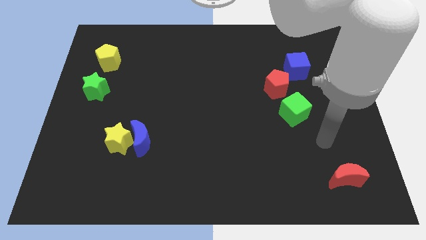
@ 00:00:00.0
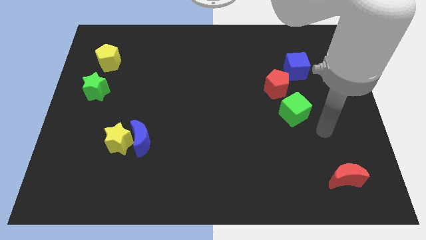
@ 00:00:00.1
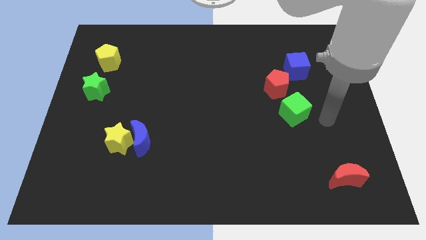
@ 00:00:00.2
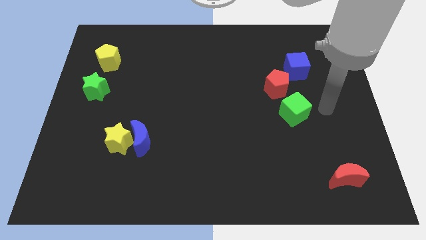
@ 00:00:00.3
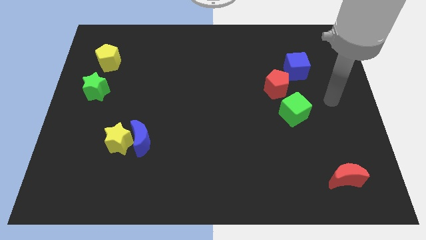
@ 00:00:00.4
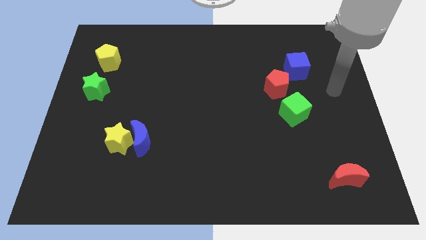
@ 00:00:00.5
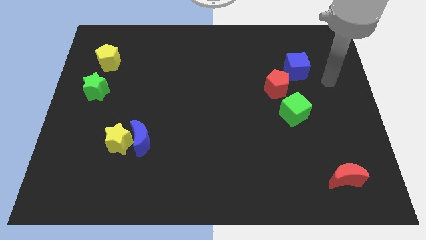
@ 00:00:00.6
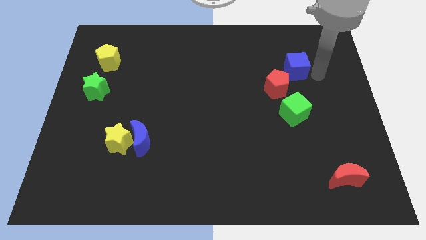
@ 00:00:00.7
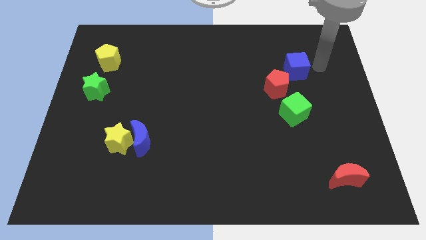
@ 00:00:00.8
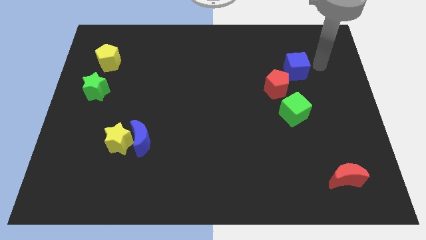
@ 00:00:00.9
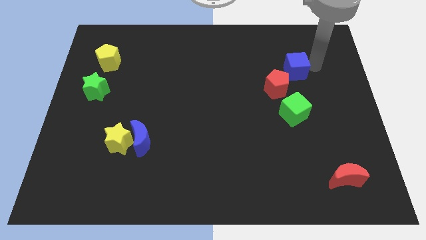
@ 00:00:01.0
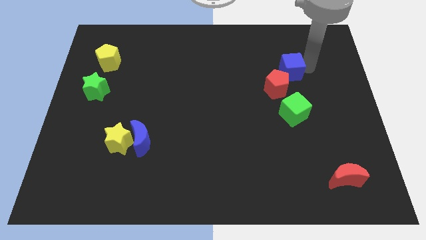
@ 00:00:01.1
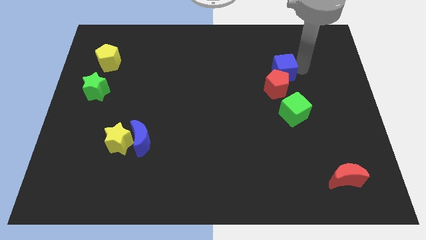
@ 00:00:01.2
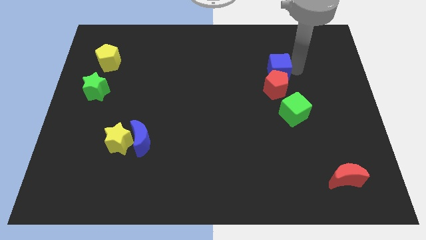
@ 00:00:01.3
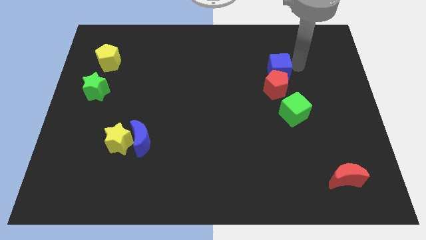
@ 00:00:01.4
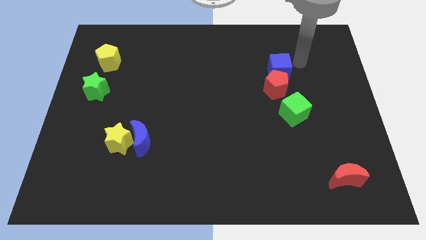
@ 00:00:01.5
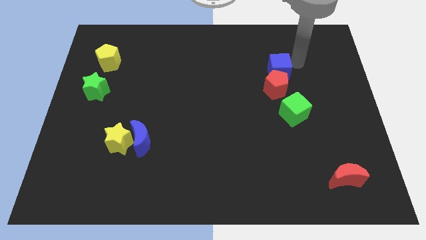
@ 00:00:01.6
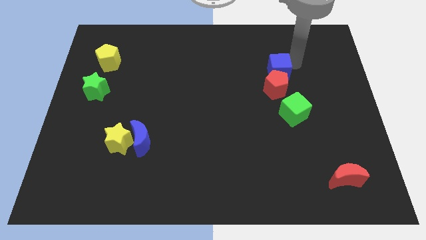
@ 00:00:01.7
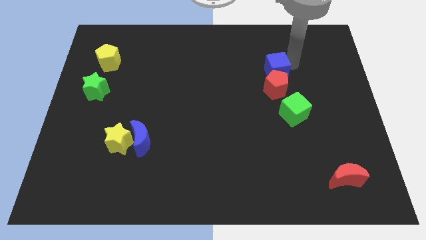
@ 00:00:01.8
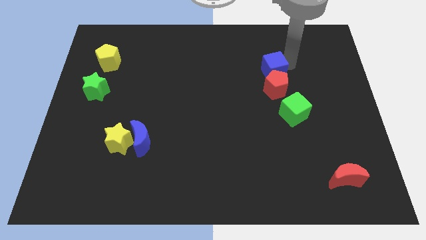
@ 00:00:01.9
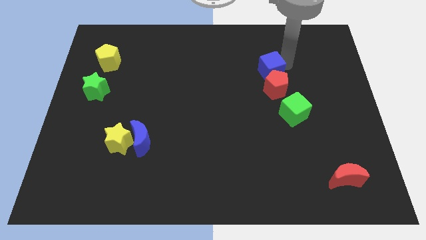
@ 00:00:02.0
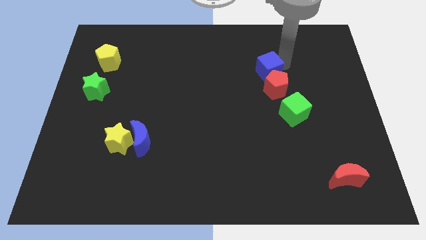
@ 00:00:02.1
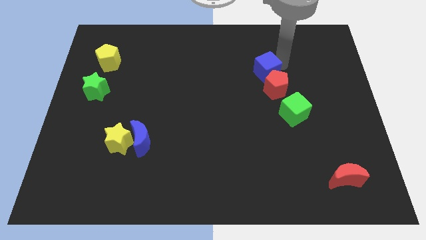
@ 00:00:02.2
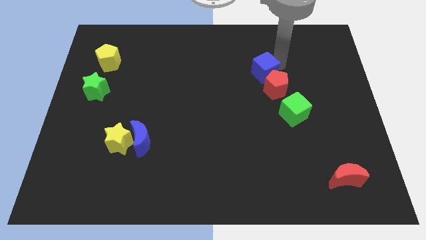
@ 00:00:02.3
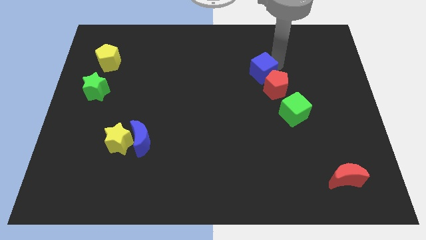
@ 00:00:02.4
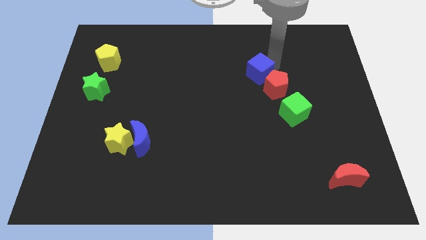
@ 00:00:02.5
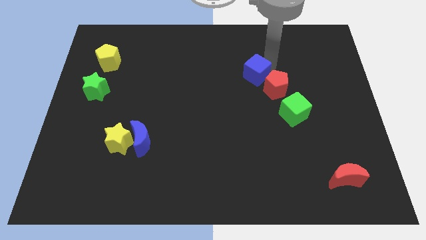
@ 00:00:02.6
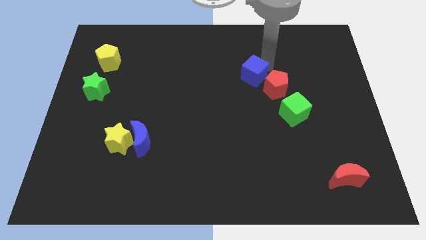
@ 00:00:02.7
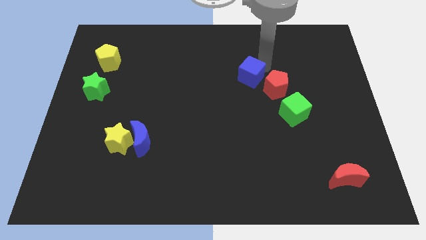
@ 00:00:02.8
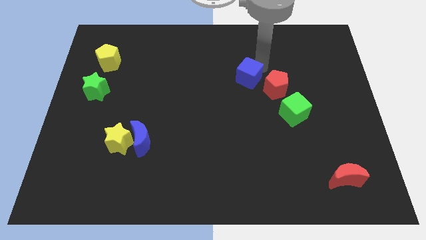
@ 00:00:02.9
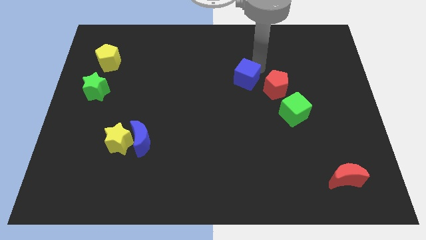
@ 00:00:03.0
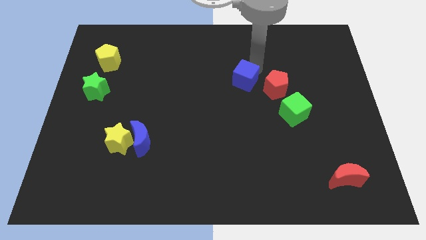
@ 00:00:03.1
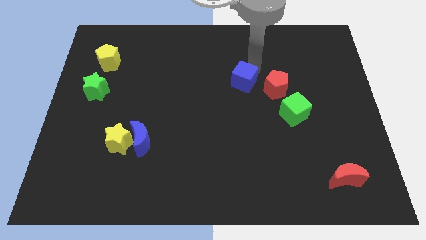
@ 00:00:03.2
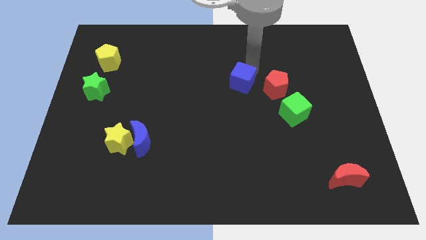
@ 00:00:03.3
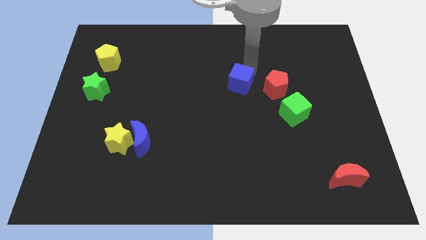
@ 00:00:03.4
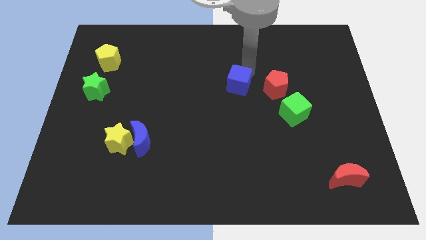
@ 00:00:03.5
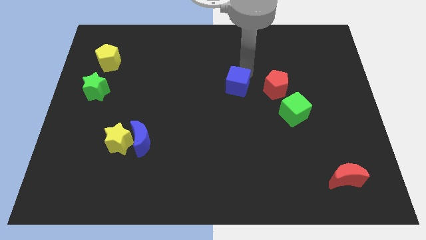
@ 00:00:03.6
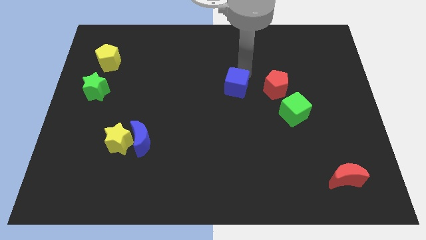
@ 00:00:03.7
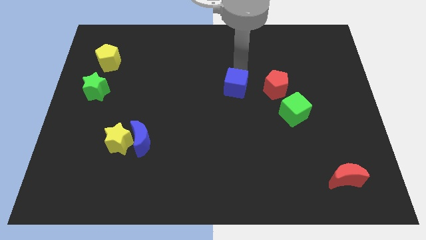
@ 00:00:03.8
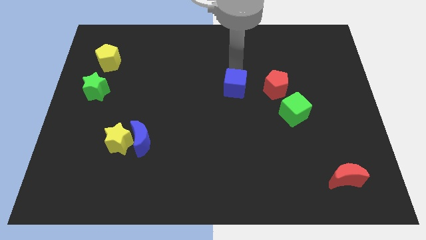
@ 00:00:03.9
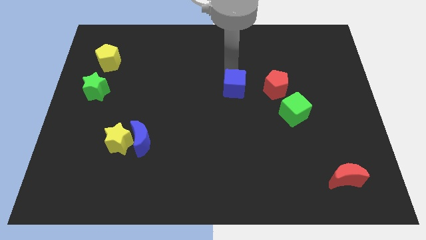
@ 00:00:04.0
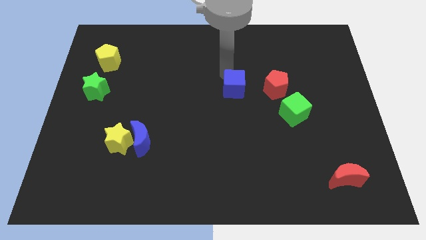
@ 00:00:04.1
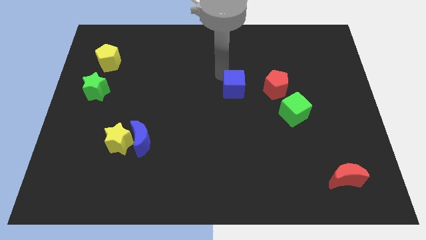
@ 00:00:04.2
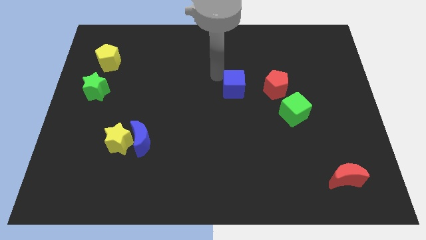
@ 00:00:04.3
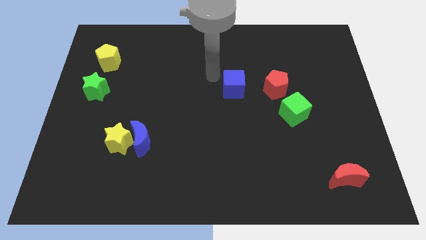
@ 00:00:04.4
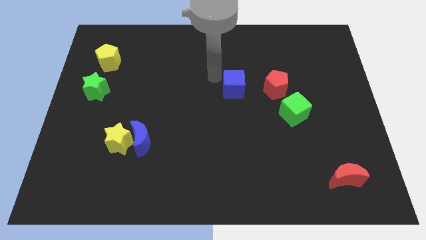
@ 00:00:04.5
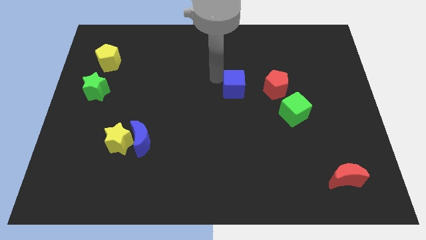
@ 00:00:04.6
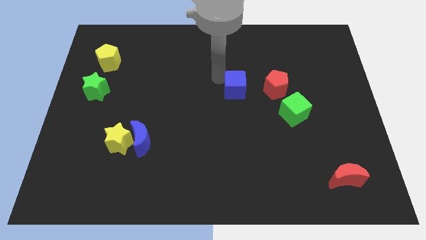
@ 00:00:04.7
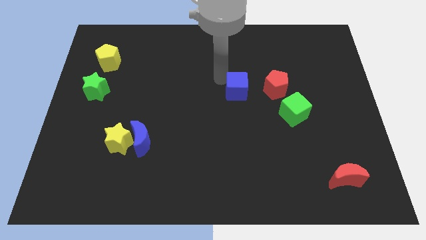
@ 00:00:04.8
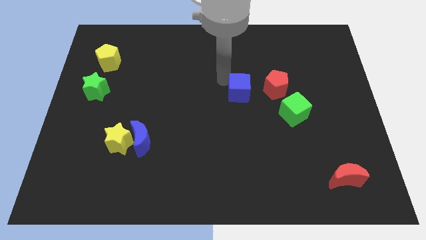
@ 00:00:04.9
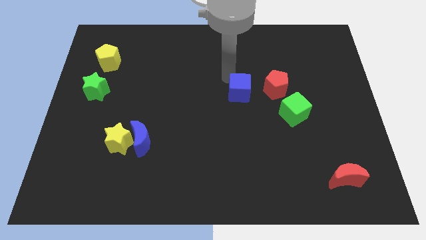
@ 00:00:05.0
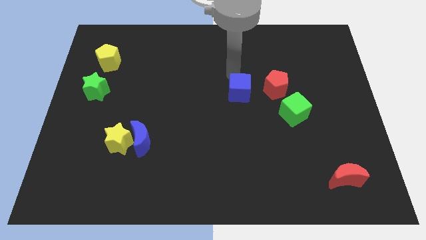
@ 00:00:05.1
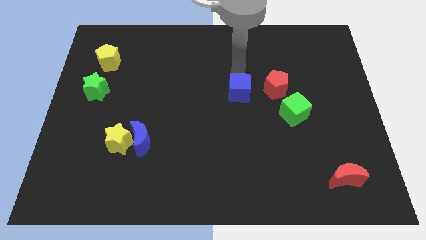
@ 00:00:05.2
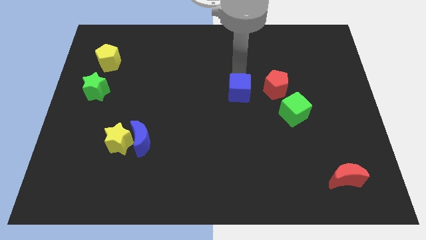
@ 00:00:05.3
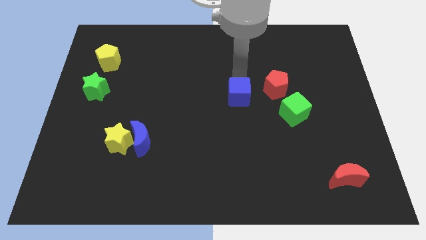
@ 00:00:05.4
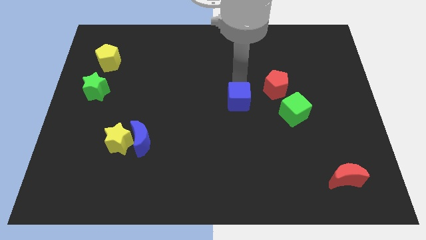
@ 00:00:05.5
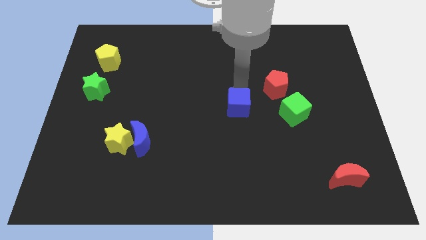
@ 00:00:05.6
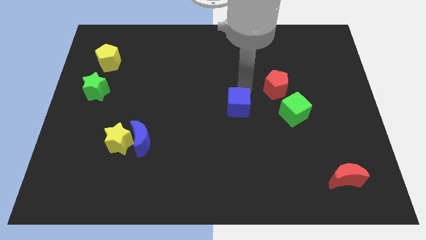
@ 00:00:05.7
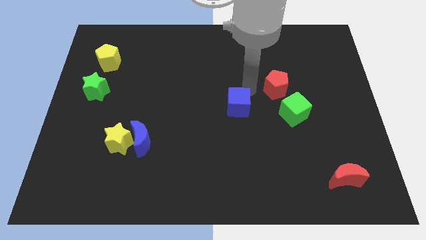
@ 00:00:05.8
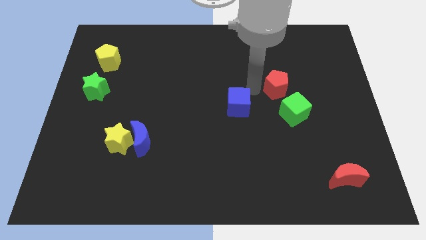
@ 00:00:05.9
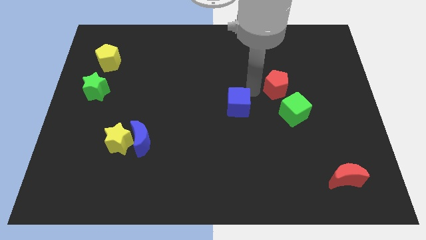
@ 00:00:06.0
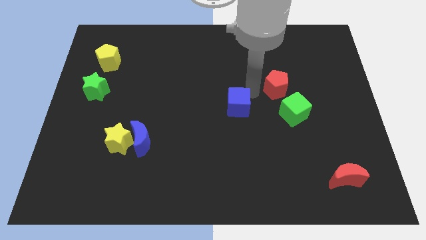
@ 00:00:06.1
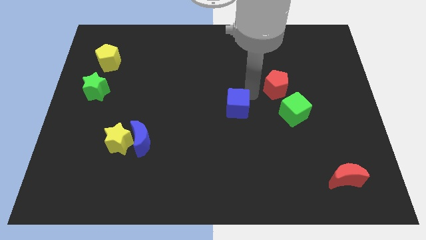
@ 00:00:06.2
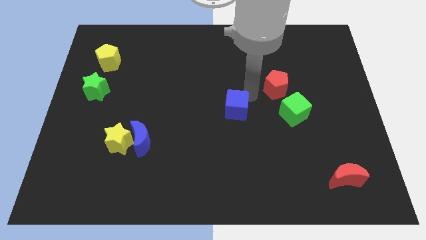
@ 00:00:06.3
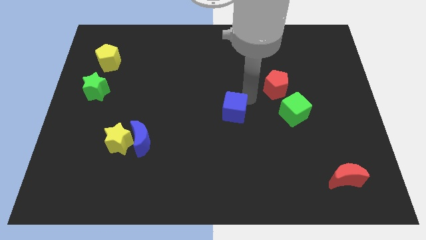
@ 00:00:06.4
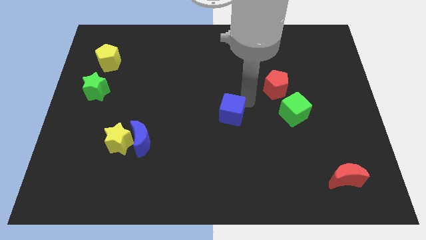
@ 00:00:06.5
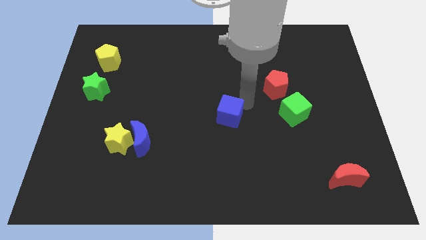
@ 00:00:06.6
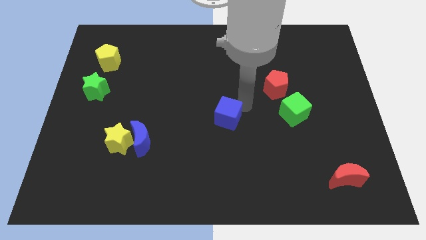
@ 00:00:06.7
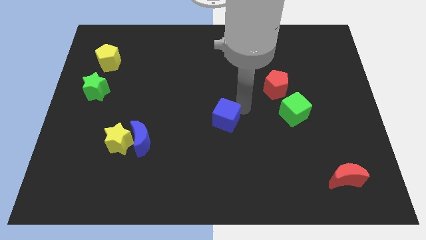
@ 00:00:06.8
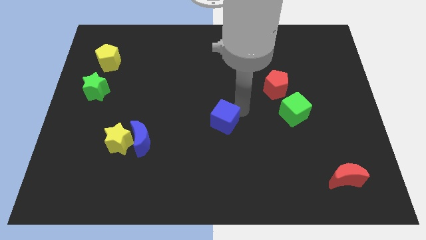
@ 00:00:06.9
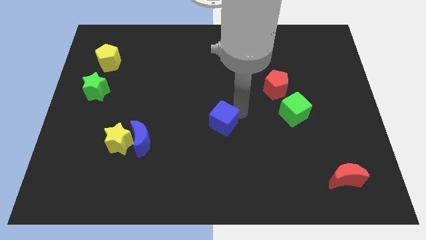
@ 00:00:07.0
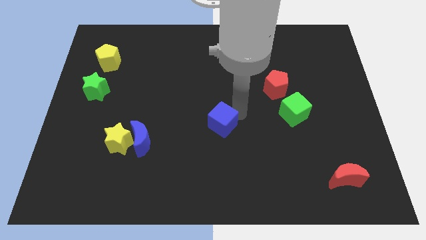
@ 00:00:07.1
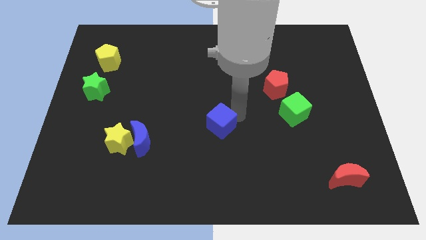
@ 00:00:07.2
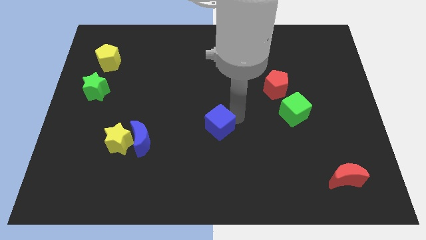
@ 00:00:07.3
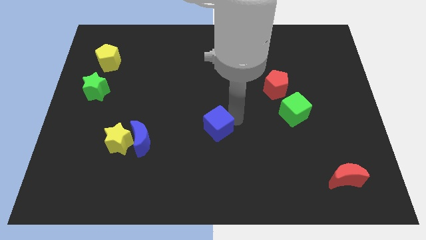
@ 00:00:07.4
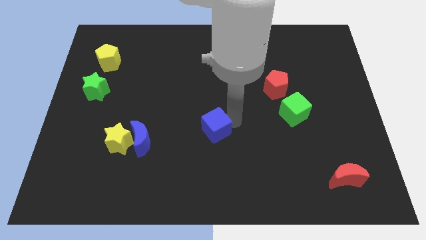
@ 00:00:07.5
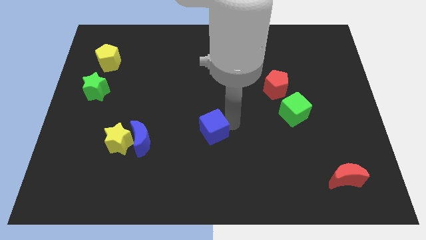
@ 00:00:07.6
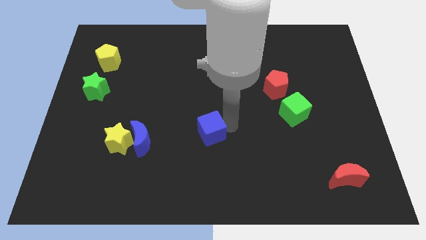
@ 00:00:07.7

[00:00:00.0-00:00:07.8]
put the blue cube just right of the blue moon
